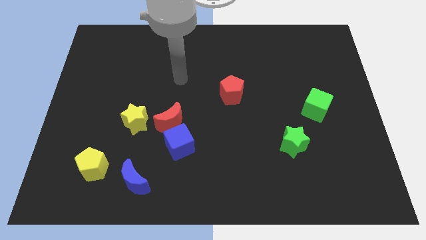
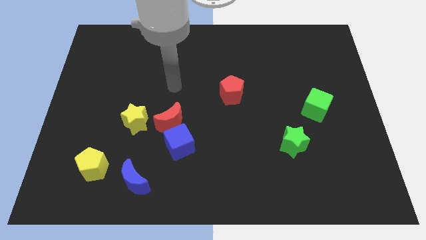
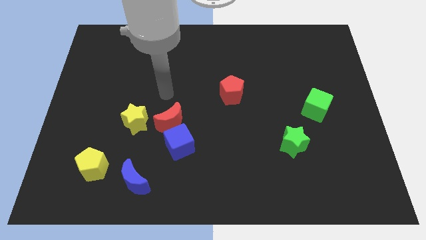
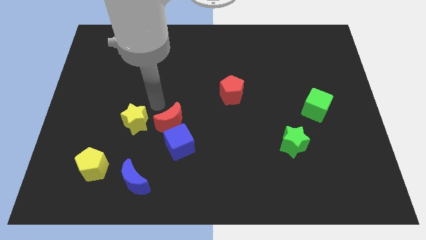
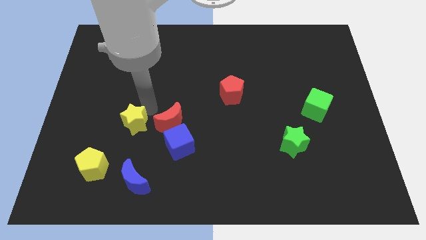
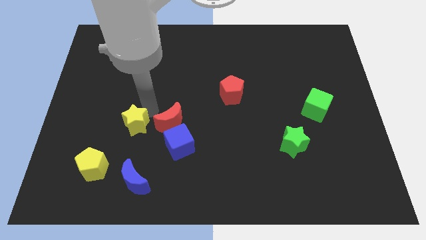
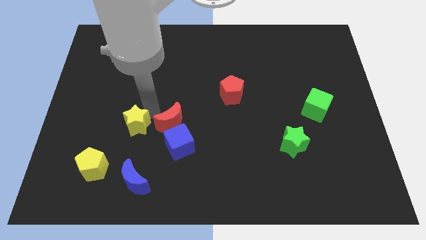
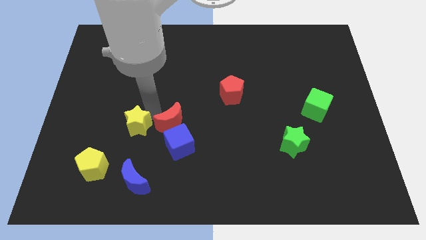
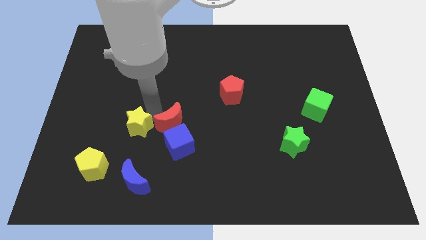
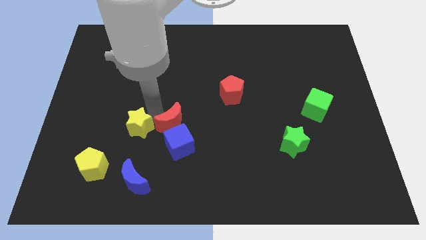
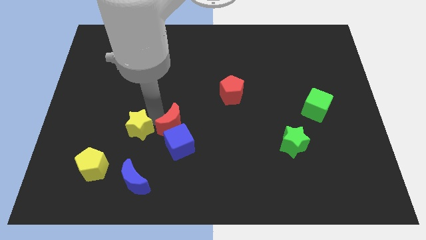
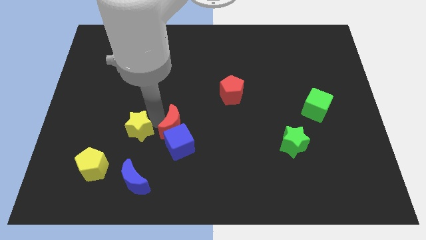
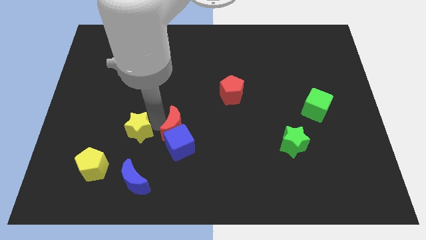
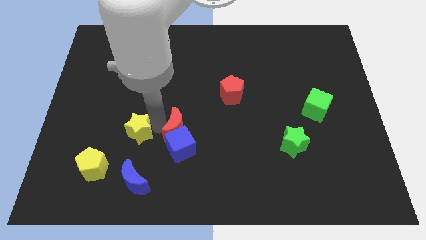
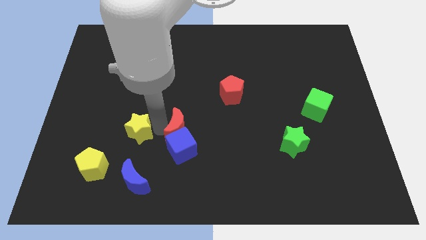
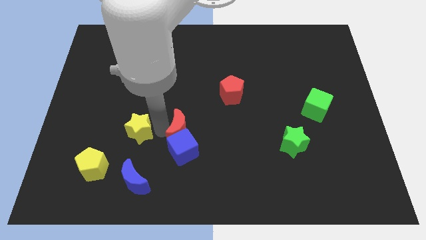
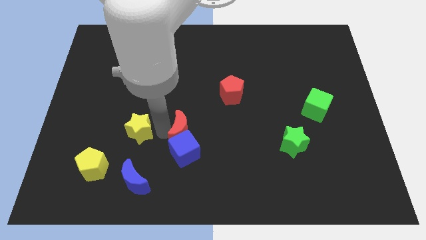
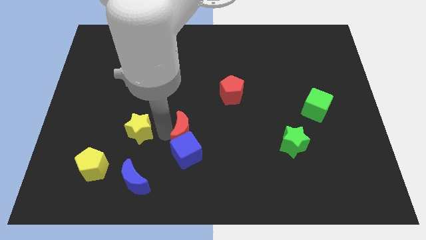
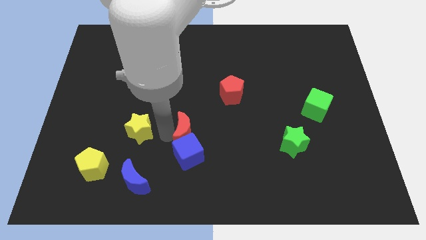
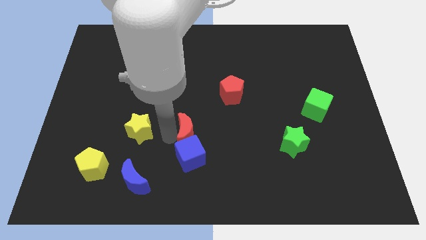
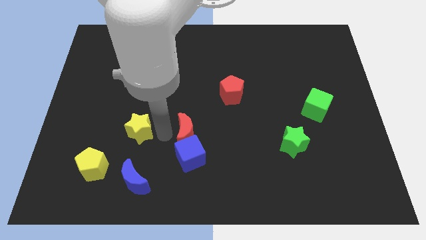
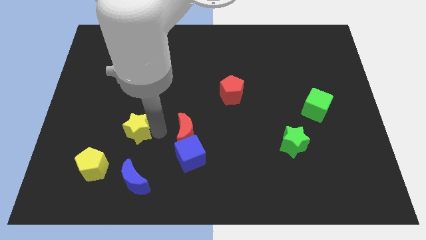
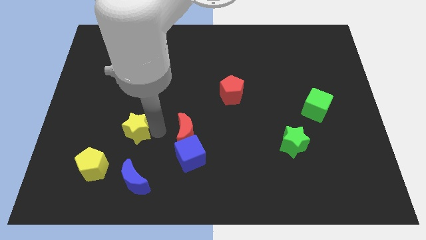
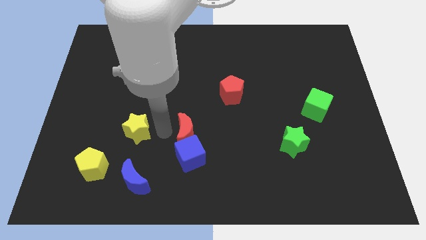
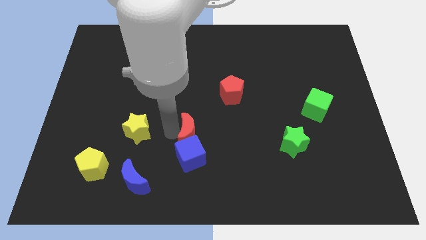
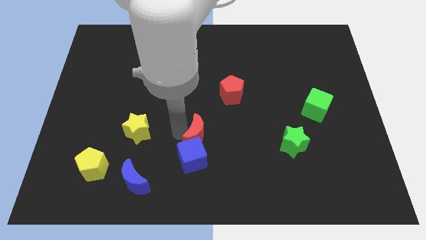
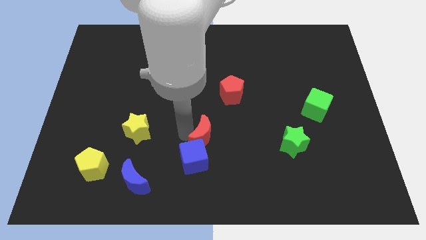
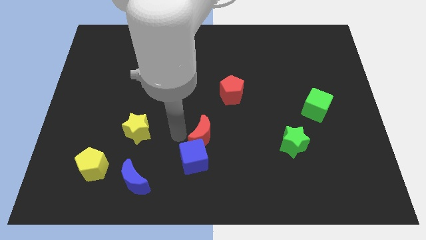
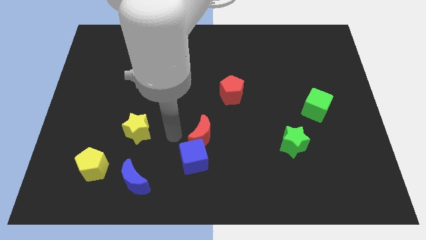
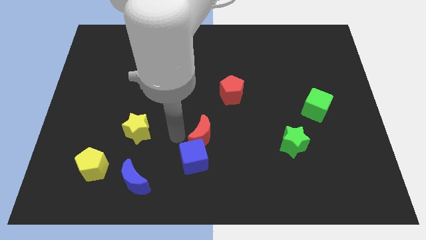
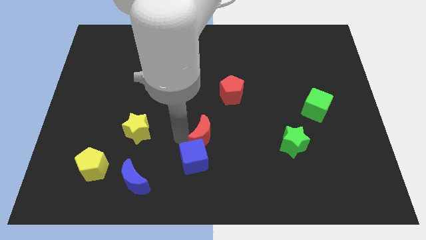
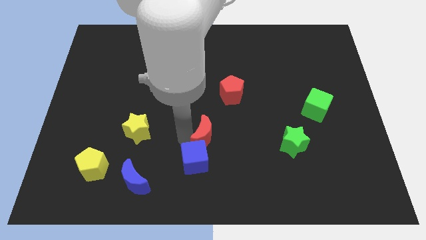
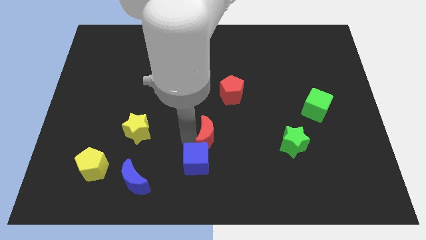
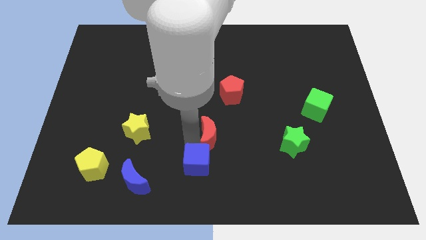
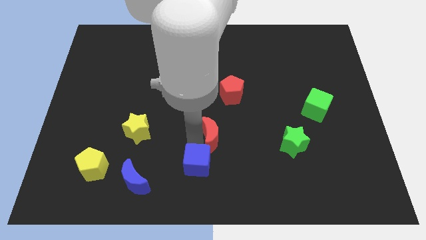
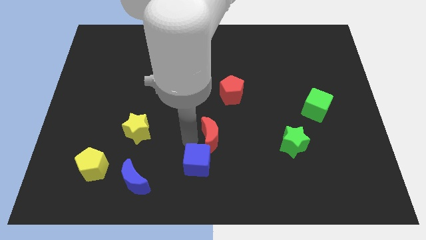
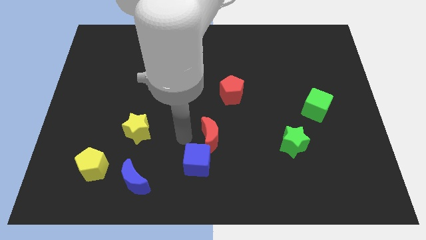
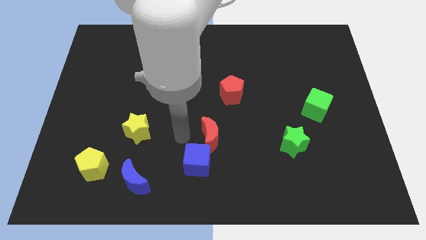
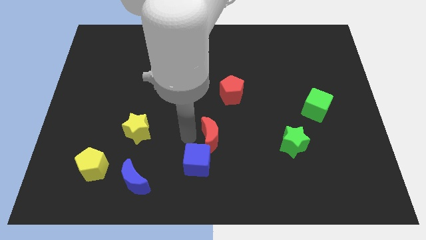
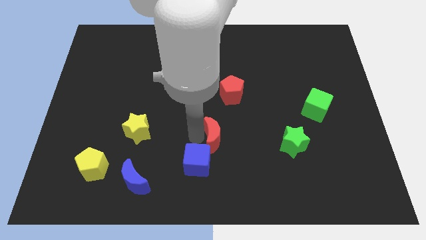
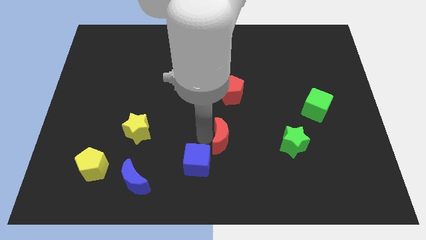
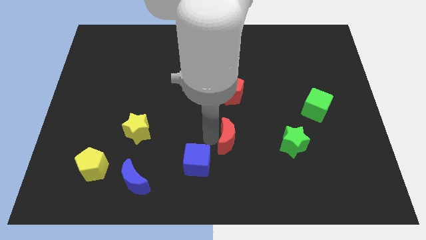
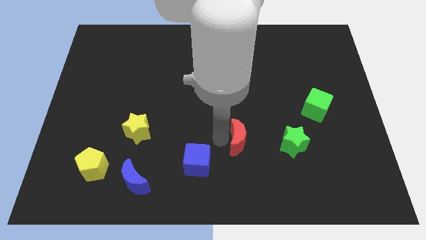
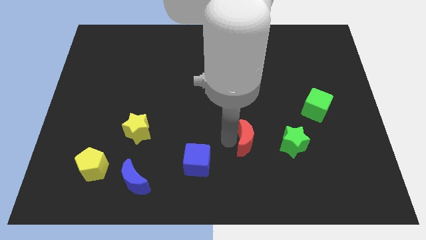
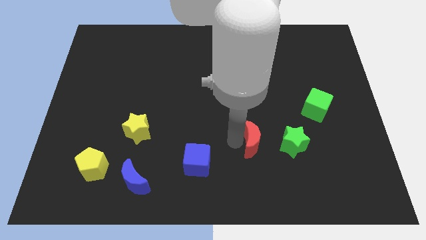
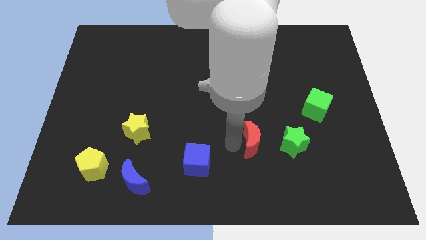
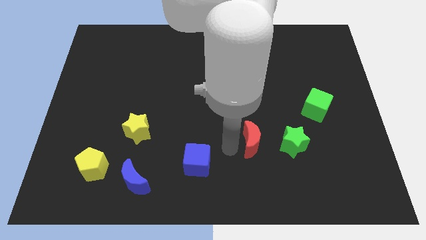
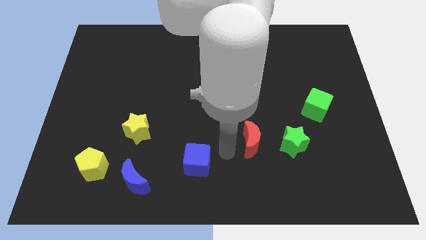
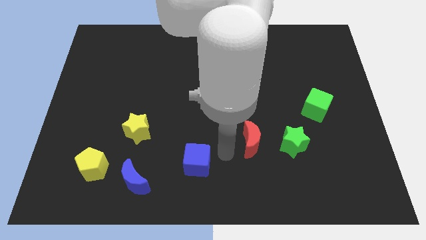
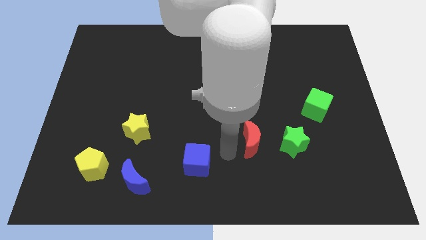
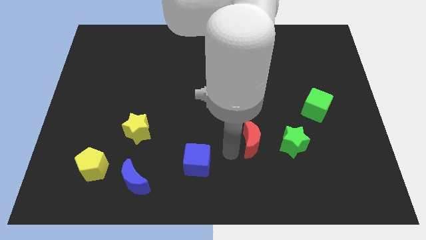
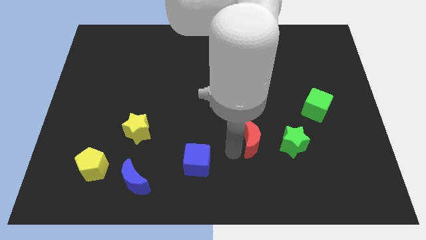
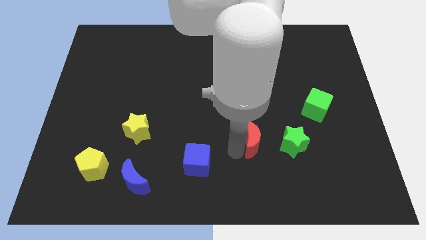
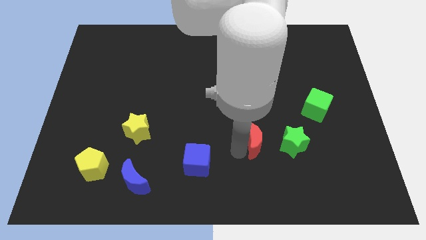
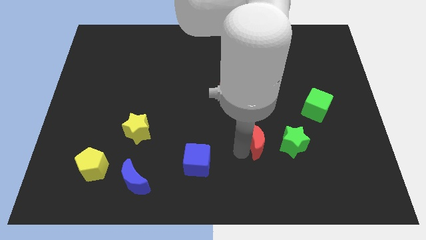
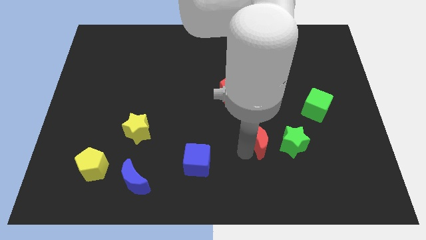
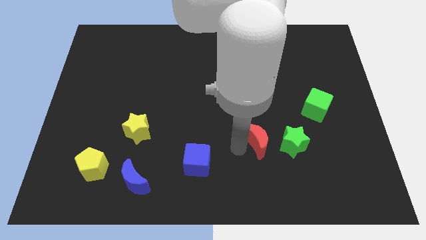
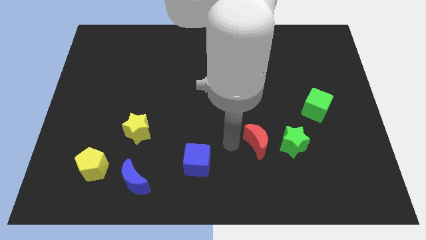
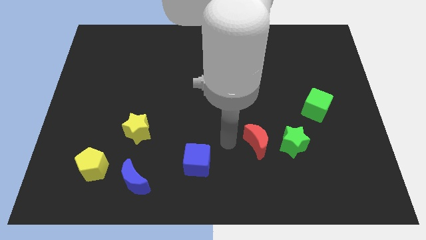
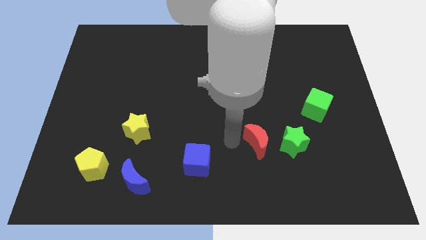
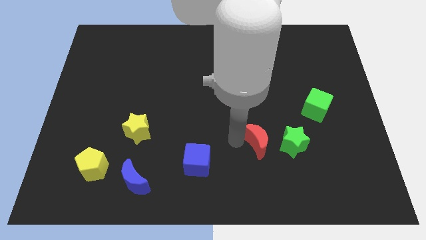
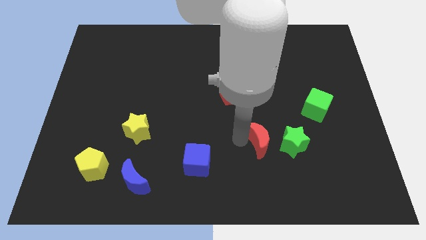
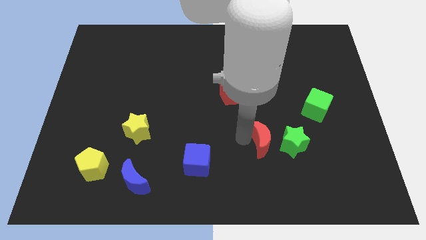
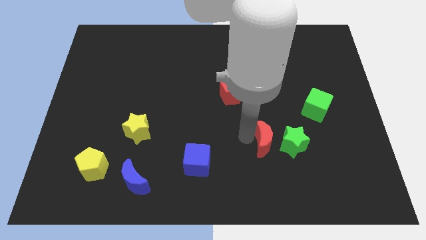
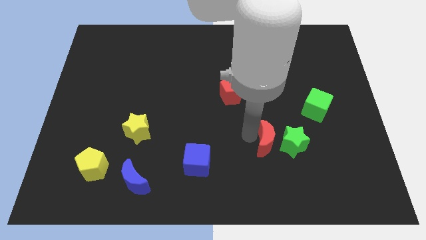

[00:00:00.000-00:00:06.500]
push the red moon towards the green star

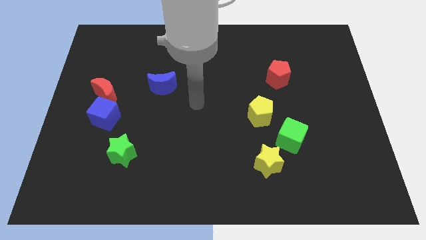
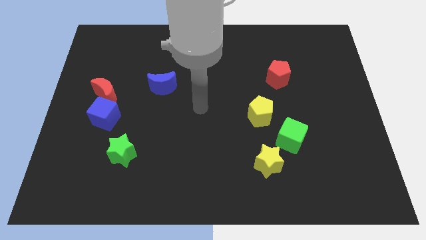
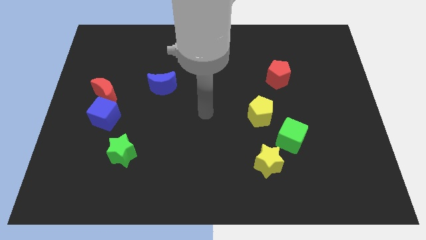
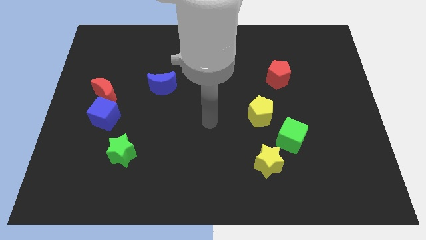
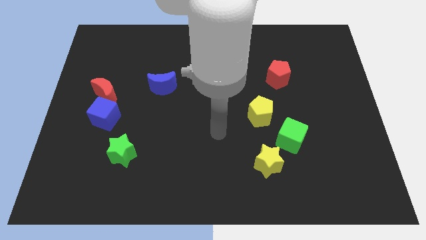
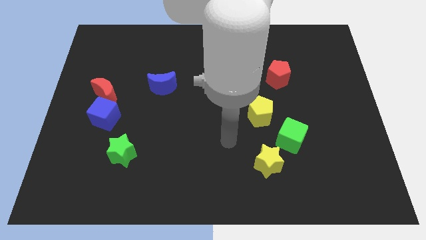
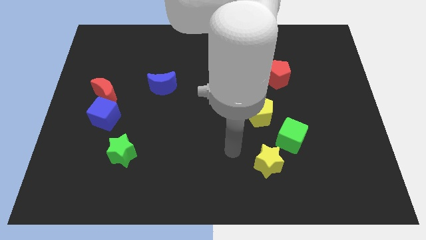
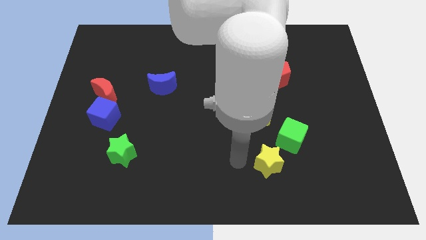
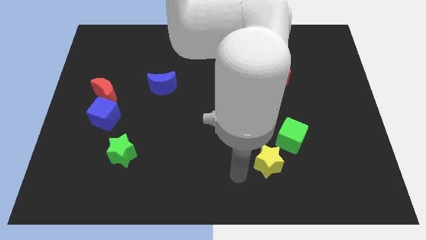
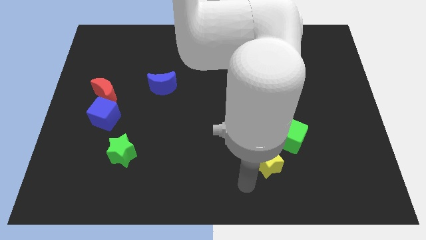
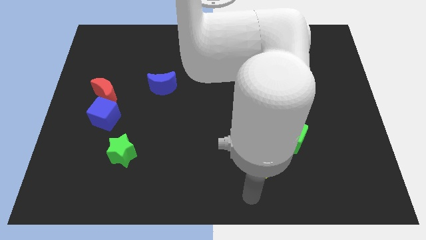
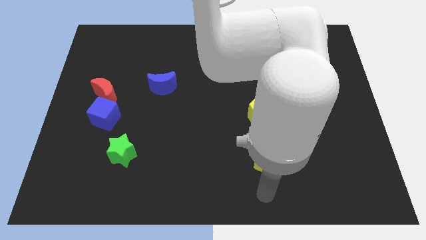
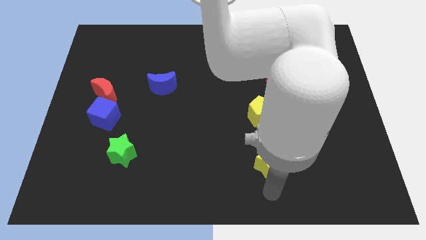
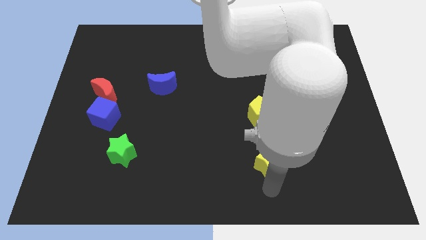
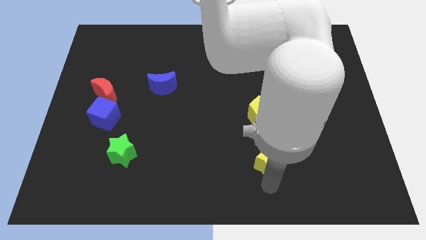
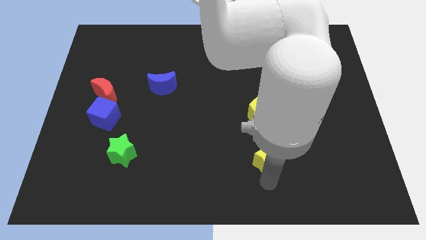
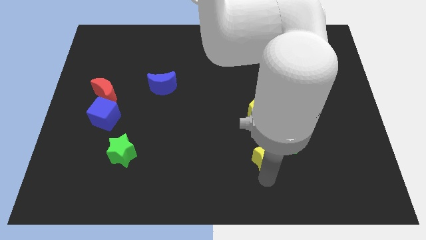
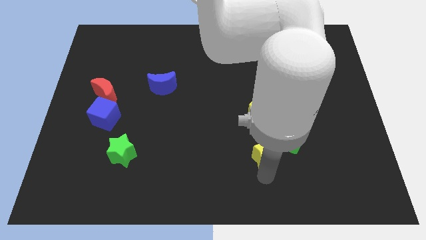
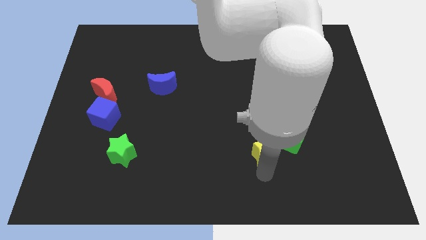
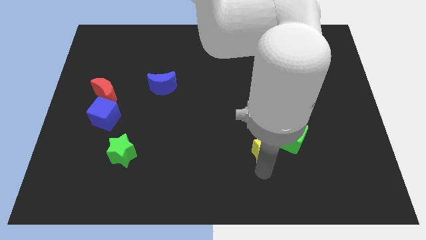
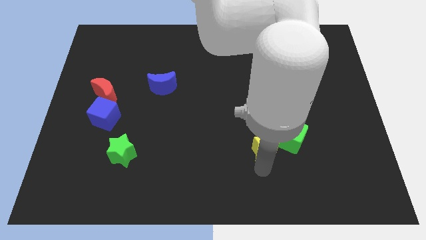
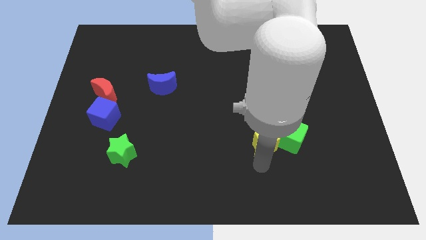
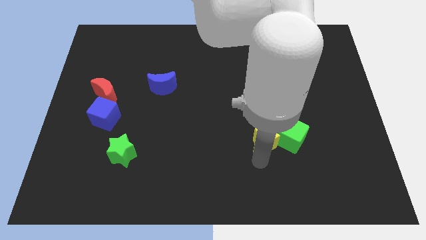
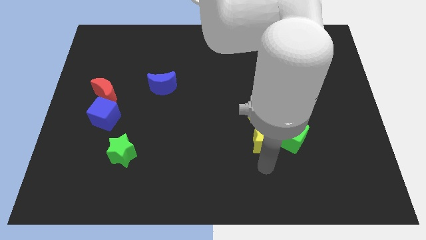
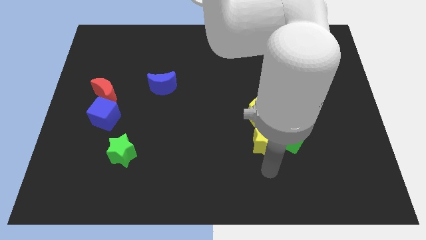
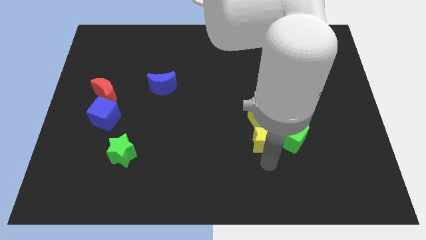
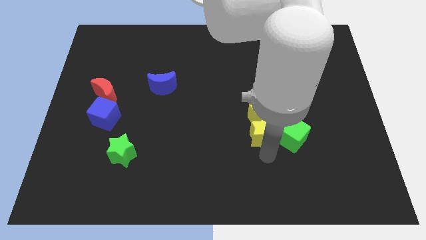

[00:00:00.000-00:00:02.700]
put the yellow star towards the yellow pentagon
